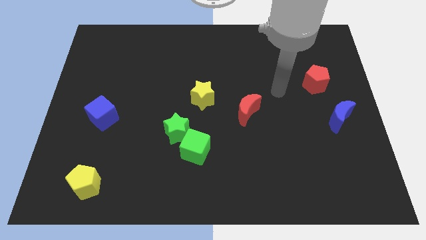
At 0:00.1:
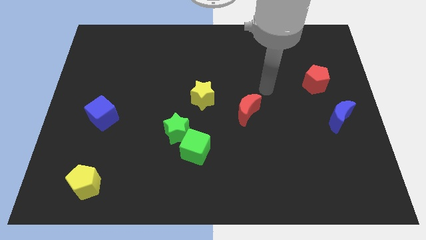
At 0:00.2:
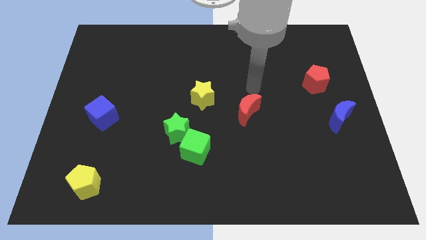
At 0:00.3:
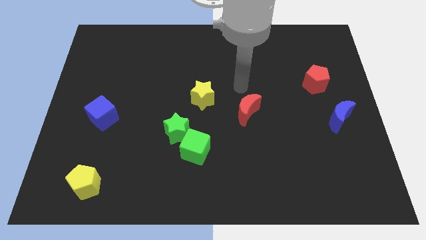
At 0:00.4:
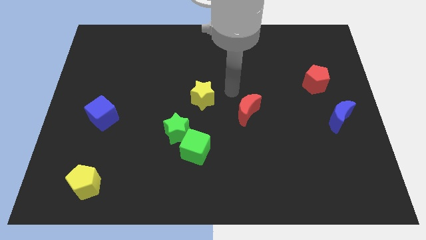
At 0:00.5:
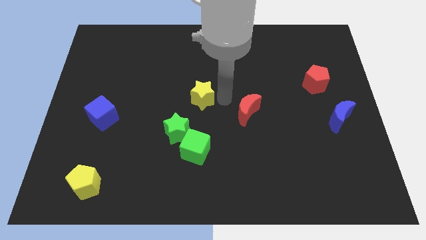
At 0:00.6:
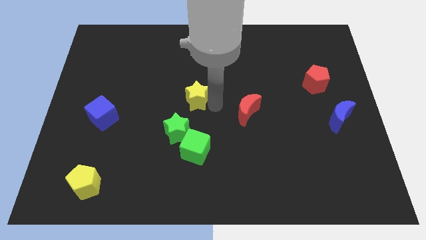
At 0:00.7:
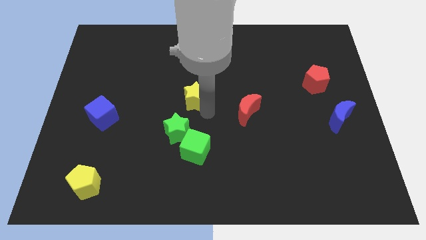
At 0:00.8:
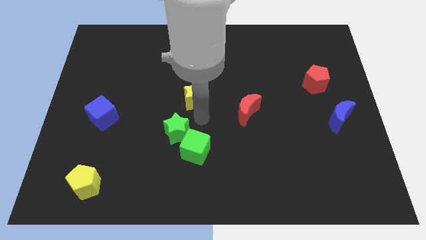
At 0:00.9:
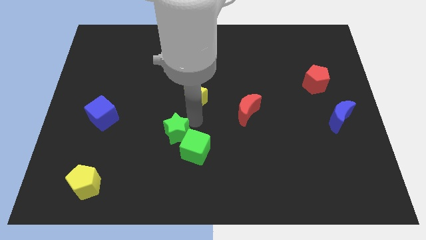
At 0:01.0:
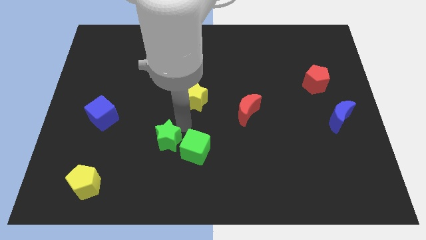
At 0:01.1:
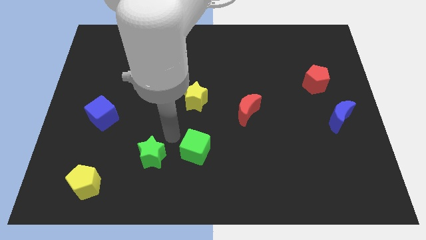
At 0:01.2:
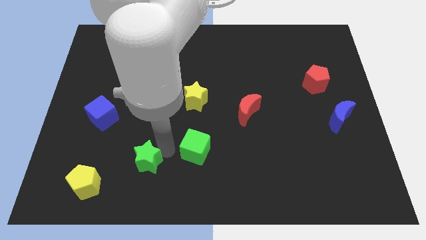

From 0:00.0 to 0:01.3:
move the green cube away from the green star

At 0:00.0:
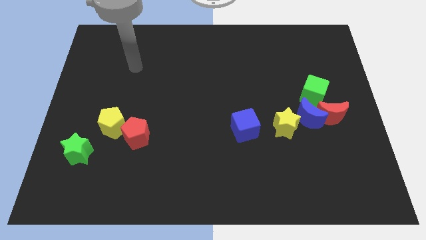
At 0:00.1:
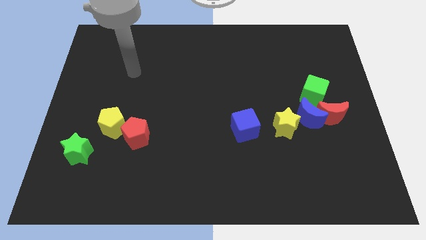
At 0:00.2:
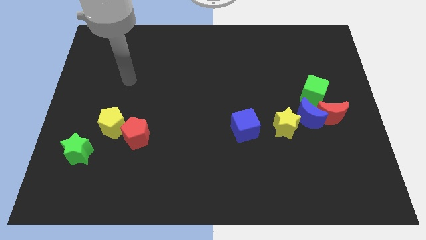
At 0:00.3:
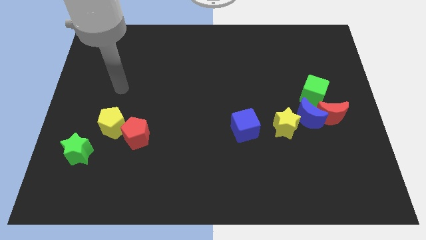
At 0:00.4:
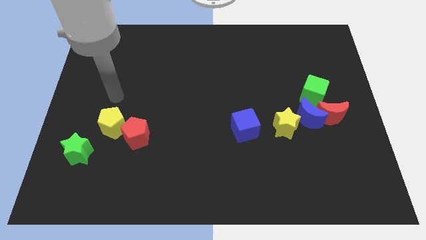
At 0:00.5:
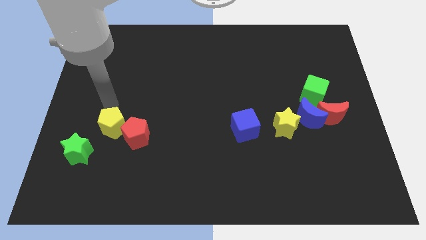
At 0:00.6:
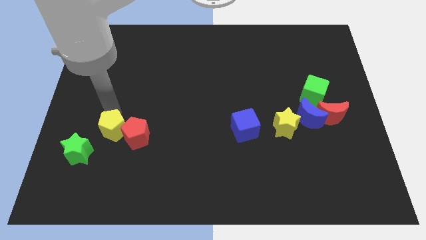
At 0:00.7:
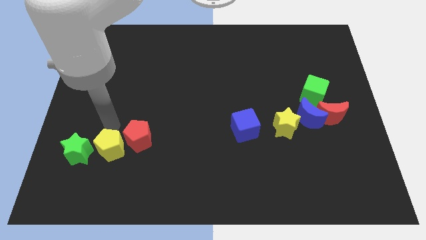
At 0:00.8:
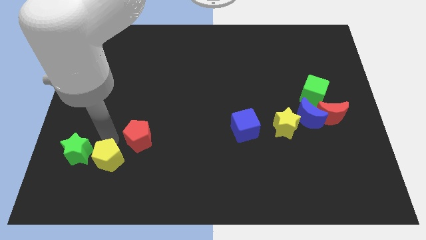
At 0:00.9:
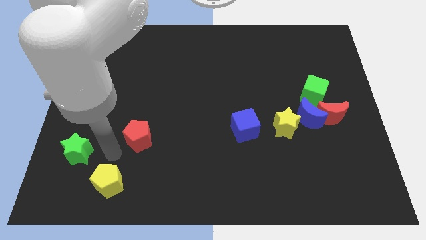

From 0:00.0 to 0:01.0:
move the red pentagon away from the yellow pentagon

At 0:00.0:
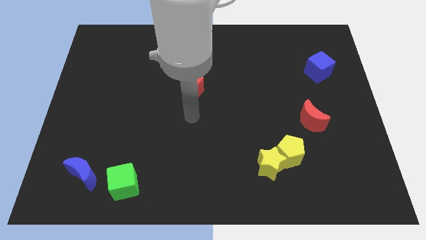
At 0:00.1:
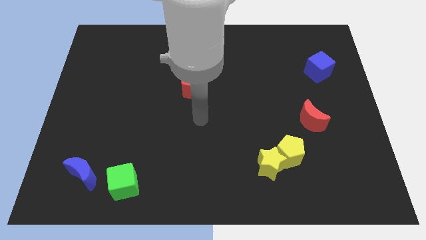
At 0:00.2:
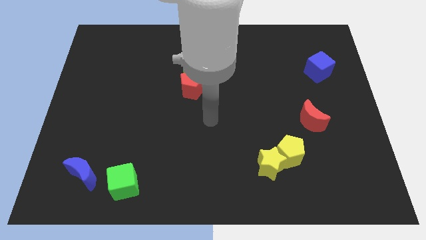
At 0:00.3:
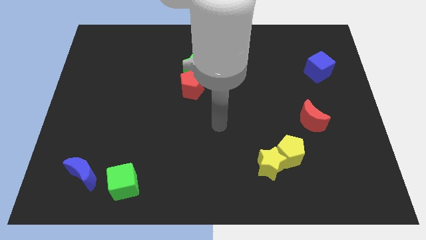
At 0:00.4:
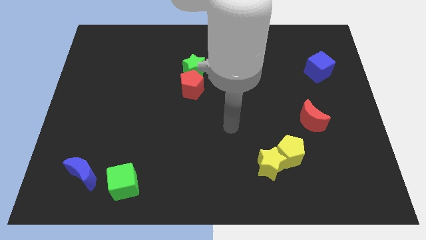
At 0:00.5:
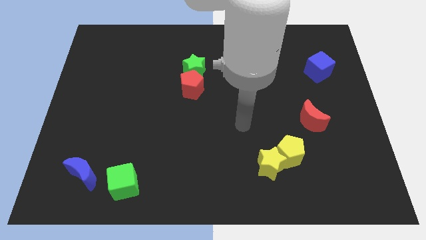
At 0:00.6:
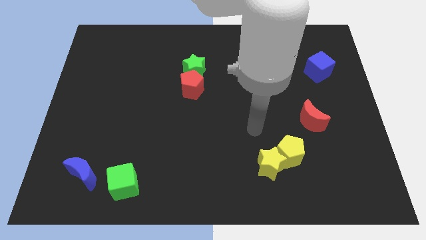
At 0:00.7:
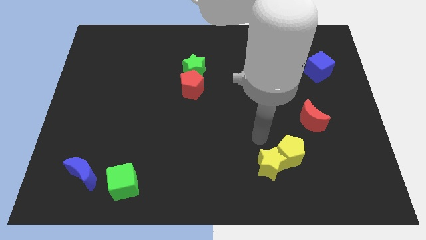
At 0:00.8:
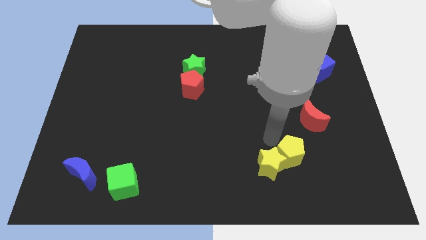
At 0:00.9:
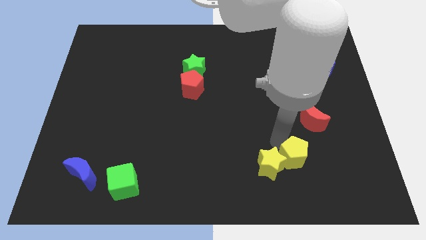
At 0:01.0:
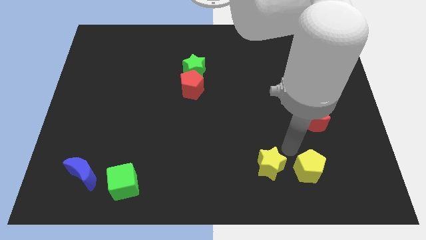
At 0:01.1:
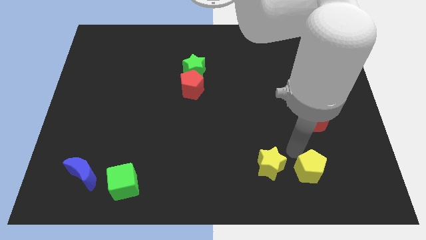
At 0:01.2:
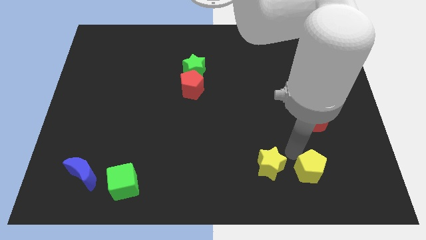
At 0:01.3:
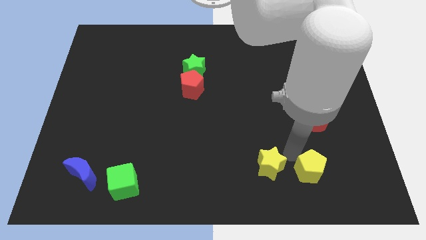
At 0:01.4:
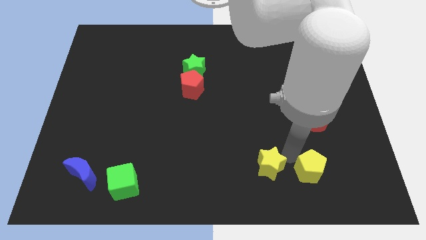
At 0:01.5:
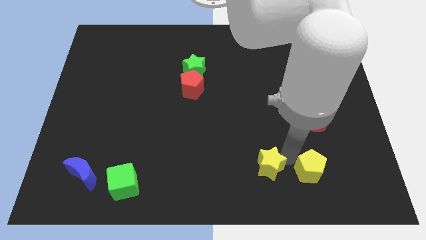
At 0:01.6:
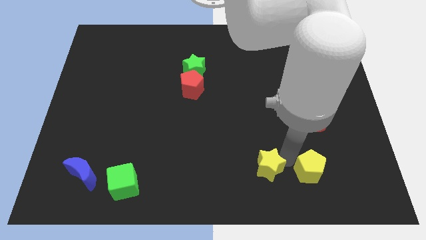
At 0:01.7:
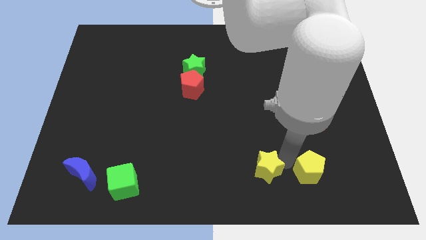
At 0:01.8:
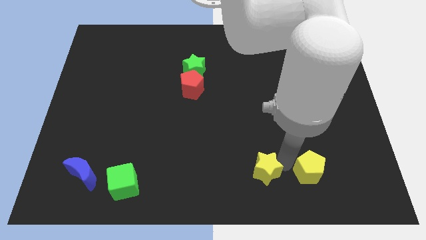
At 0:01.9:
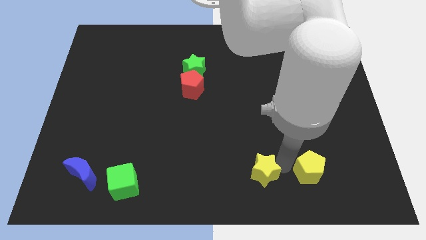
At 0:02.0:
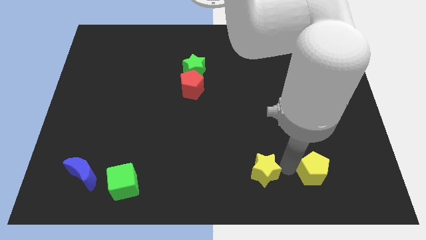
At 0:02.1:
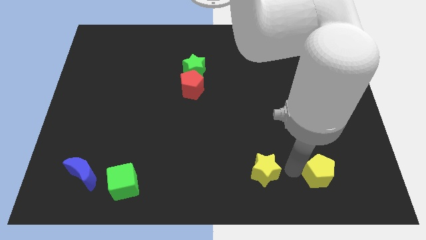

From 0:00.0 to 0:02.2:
separate the yellow star from the yellow pentagon

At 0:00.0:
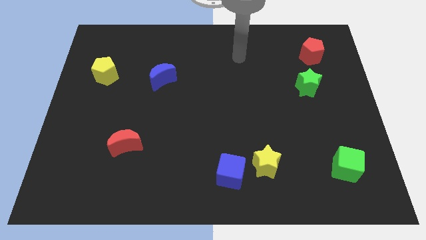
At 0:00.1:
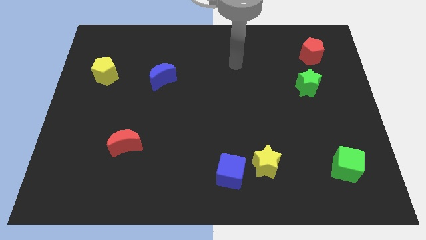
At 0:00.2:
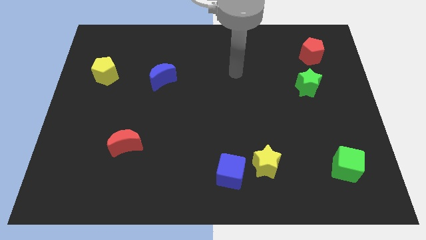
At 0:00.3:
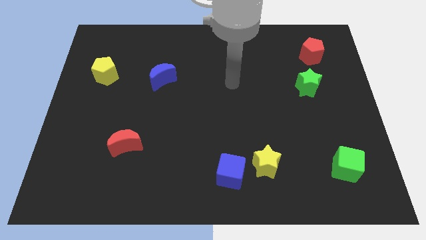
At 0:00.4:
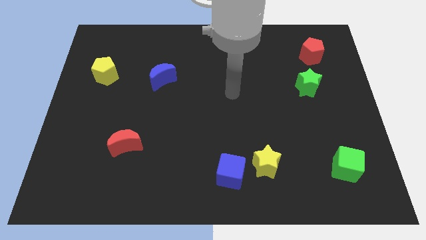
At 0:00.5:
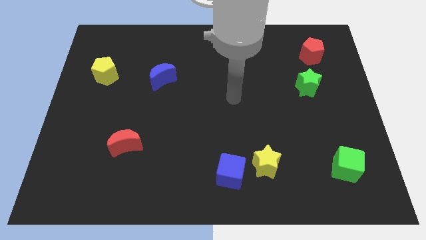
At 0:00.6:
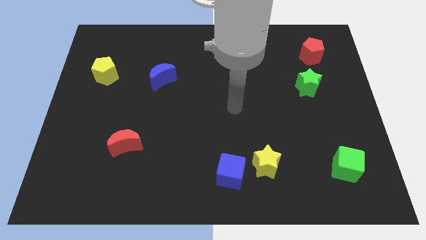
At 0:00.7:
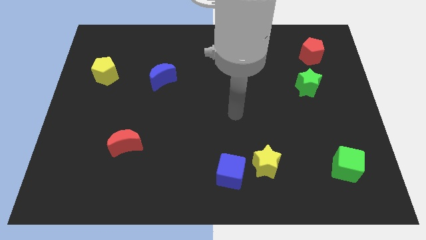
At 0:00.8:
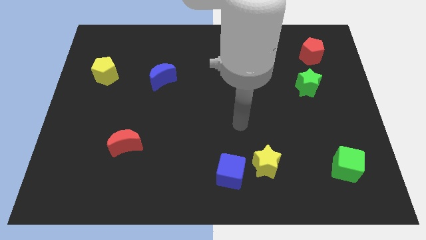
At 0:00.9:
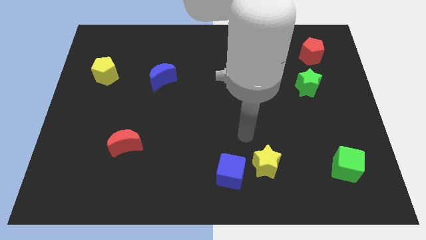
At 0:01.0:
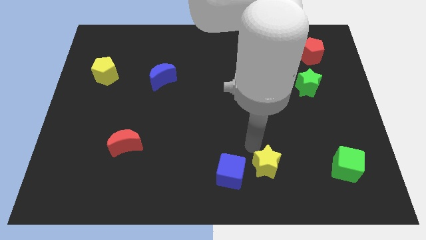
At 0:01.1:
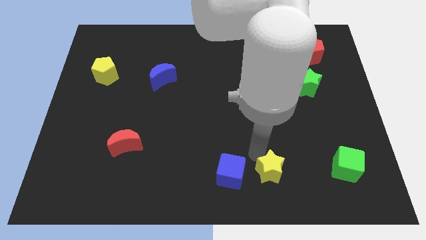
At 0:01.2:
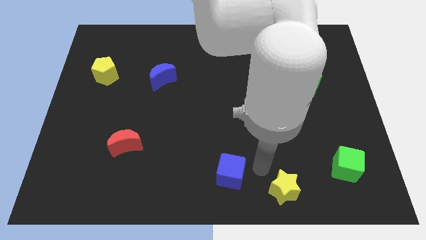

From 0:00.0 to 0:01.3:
pull the blue cube apart from the yellow star

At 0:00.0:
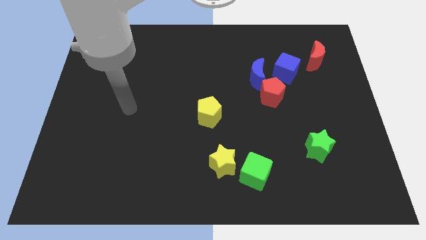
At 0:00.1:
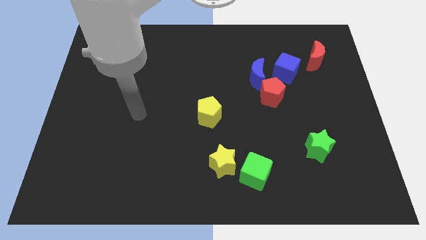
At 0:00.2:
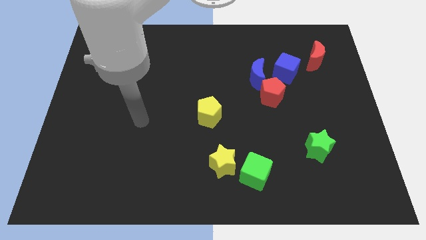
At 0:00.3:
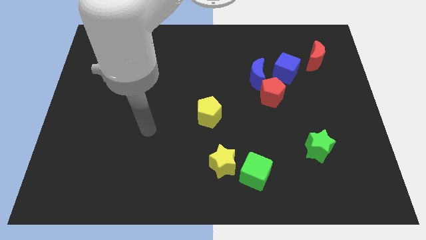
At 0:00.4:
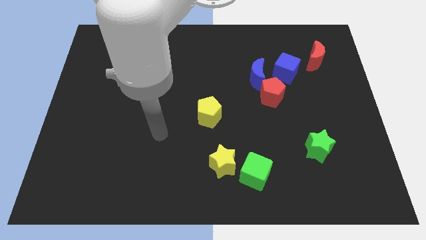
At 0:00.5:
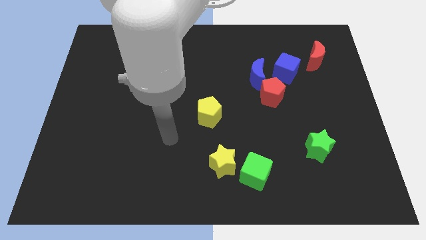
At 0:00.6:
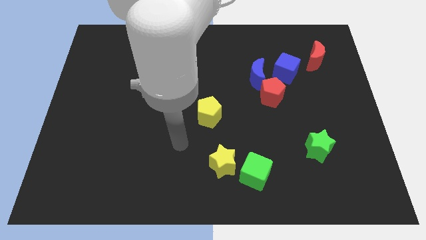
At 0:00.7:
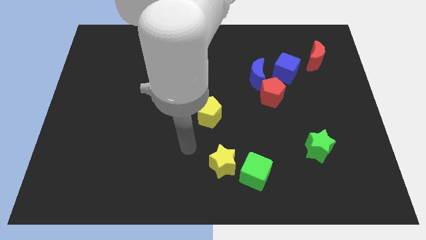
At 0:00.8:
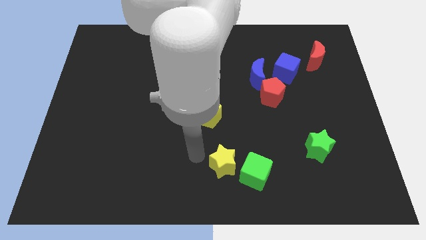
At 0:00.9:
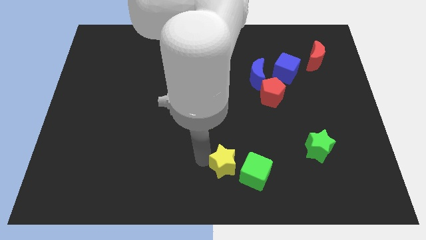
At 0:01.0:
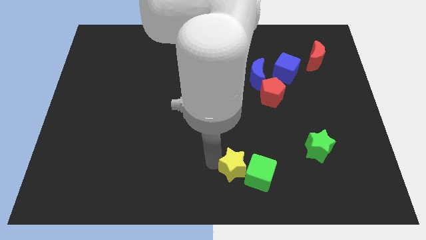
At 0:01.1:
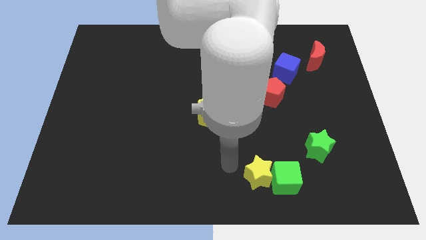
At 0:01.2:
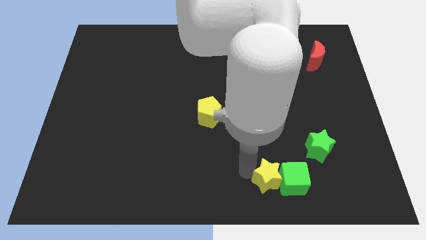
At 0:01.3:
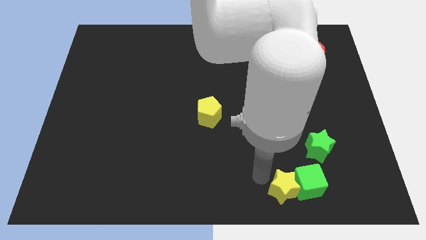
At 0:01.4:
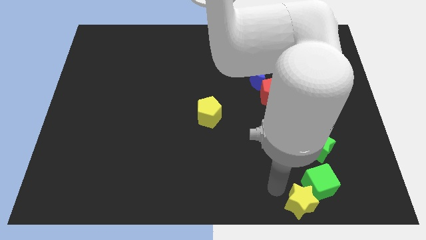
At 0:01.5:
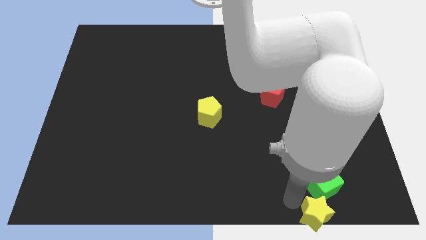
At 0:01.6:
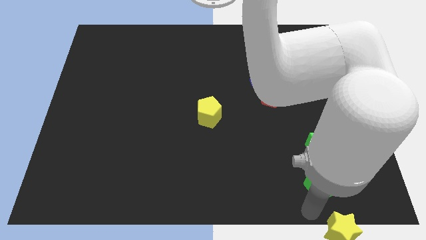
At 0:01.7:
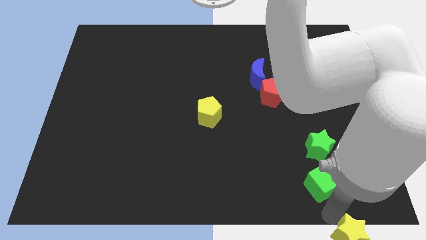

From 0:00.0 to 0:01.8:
pull the green cube apart from the yellow star

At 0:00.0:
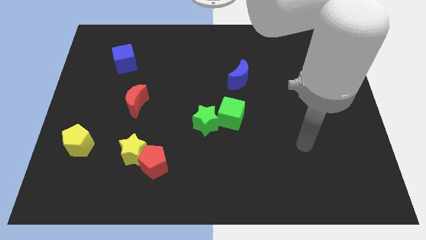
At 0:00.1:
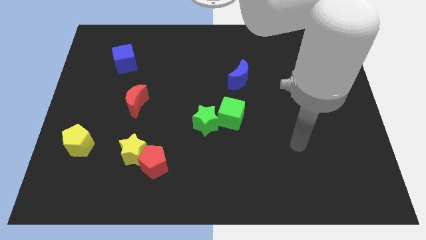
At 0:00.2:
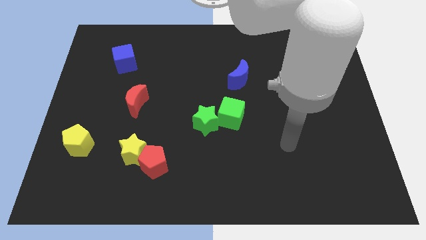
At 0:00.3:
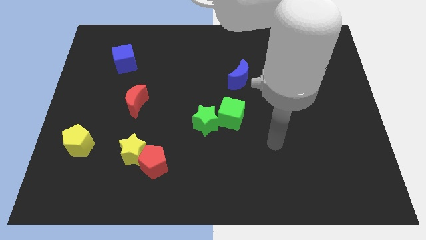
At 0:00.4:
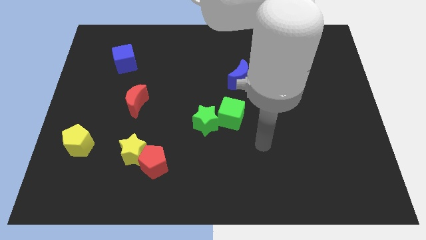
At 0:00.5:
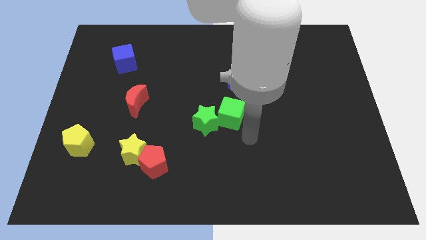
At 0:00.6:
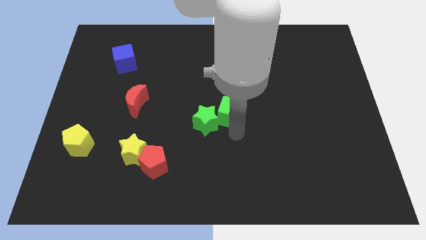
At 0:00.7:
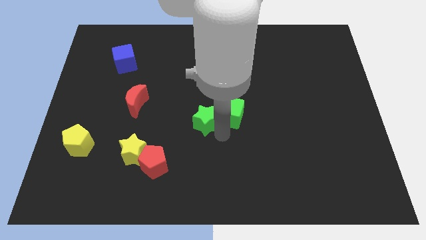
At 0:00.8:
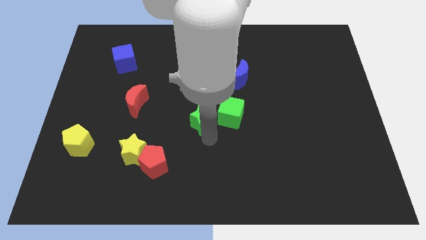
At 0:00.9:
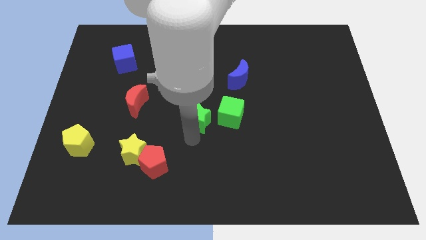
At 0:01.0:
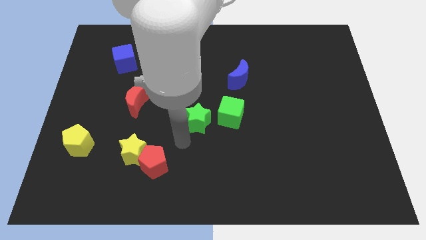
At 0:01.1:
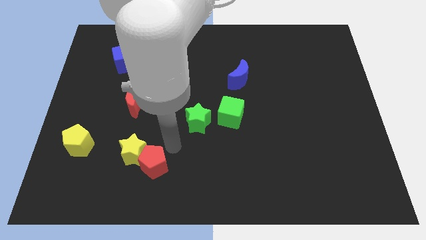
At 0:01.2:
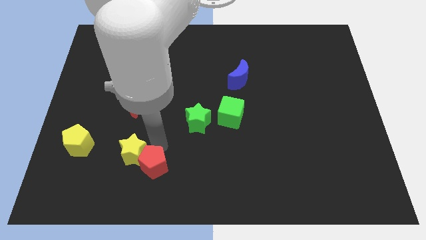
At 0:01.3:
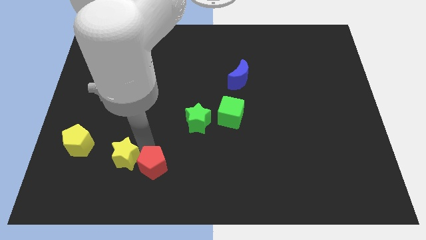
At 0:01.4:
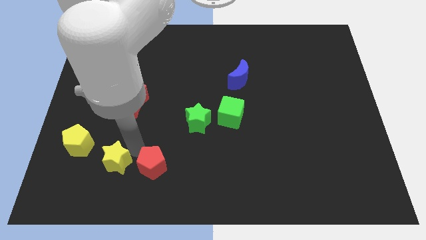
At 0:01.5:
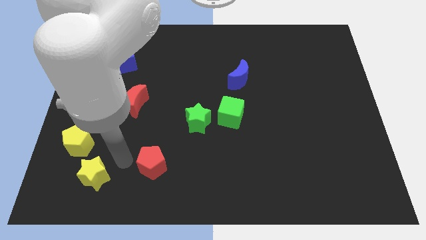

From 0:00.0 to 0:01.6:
separate the red pentagon from the yellow star
